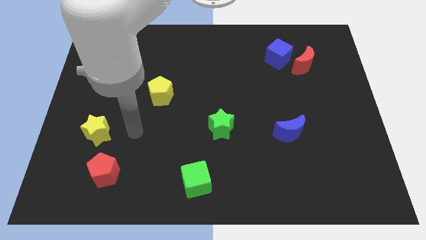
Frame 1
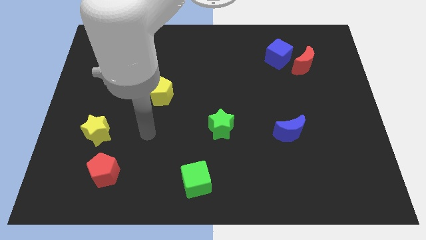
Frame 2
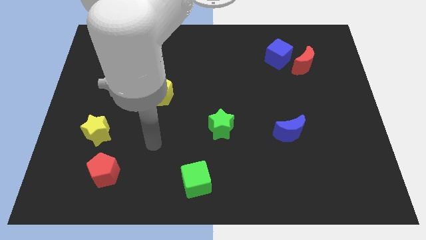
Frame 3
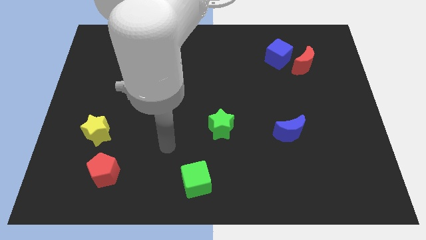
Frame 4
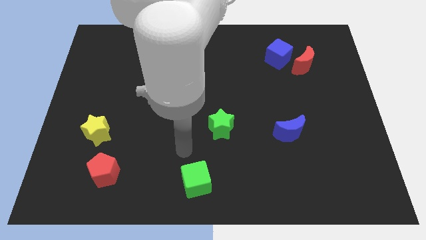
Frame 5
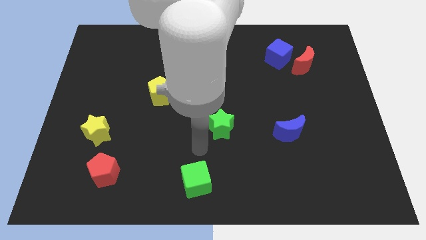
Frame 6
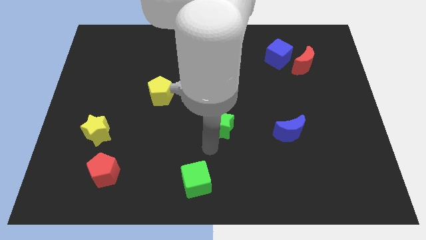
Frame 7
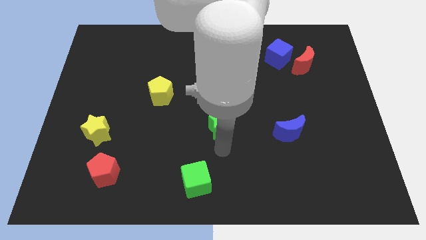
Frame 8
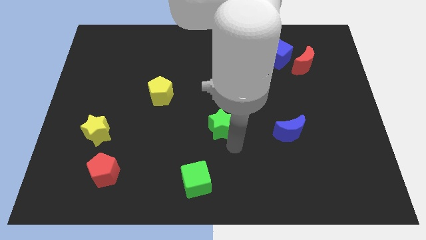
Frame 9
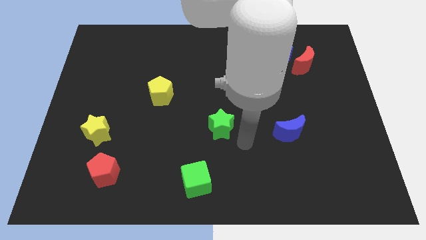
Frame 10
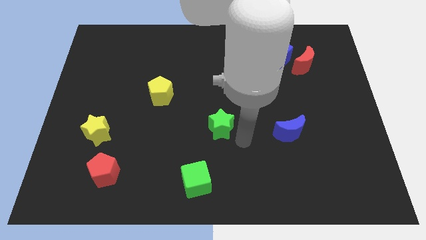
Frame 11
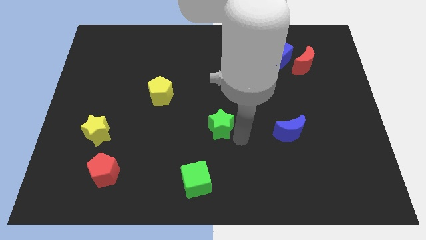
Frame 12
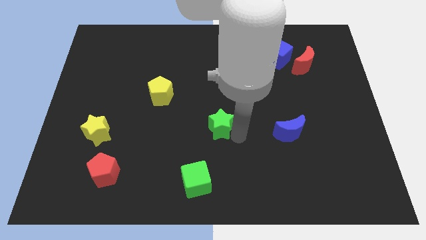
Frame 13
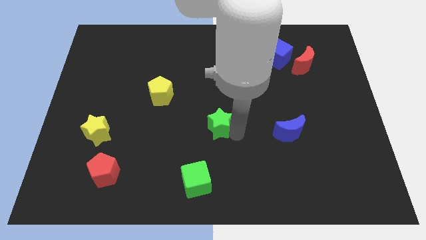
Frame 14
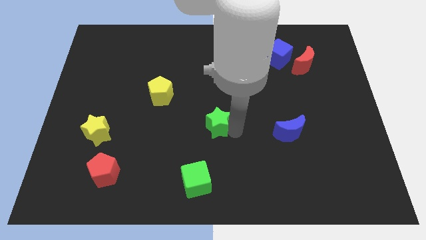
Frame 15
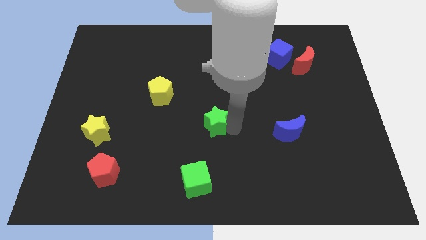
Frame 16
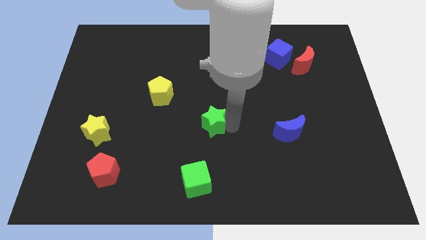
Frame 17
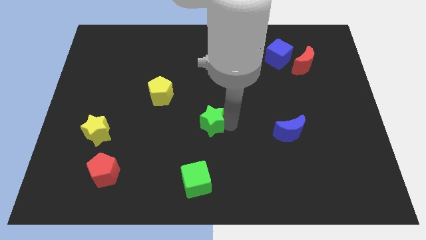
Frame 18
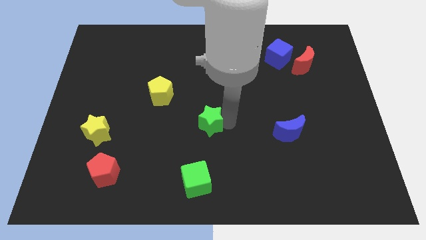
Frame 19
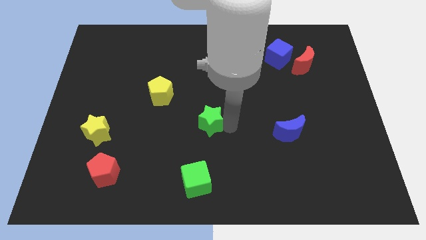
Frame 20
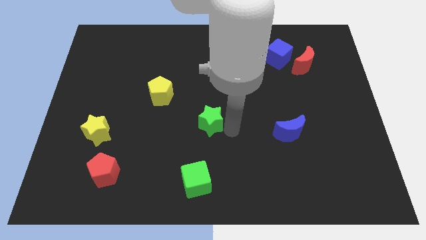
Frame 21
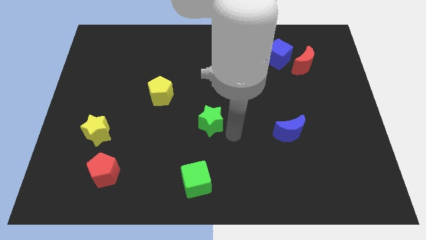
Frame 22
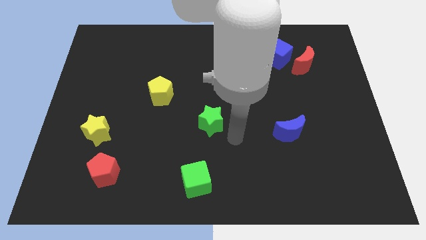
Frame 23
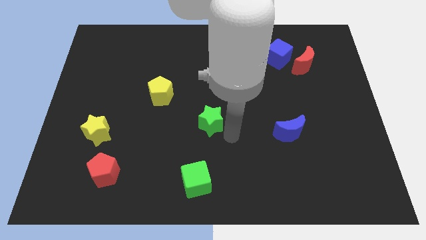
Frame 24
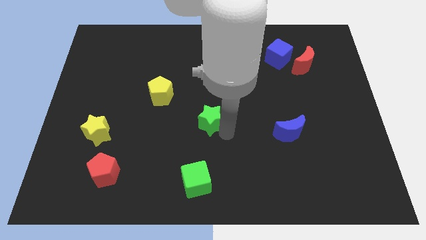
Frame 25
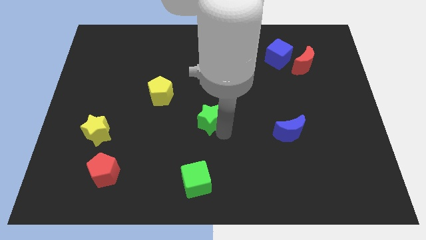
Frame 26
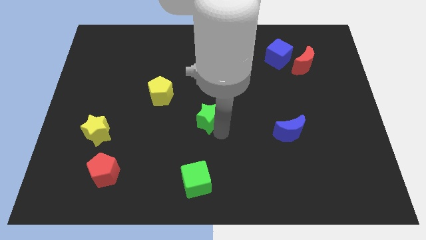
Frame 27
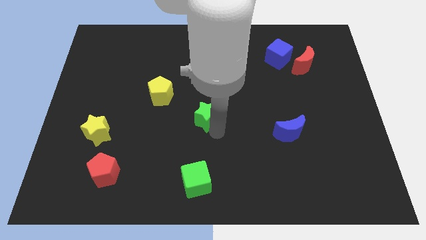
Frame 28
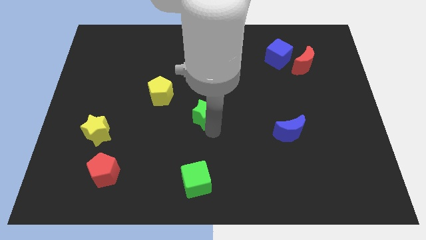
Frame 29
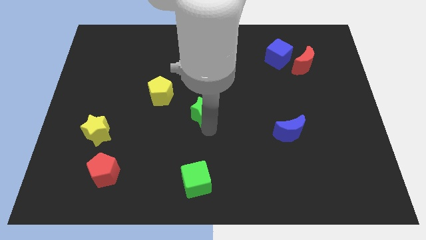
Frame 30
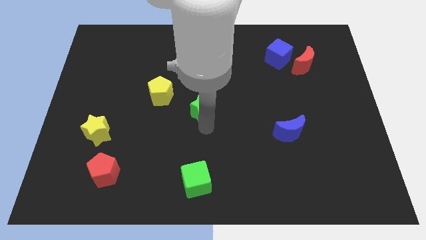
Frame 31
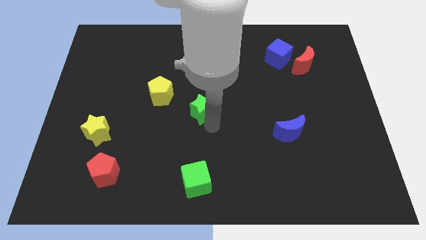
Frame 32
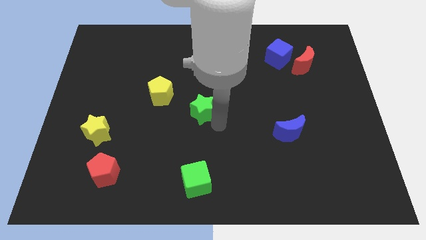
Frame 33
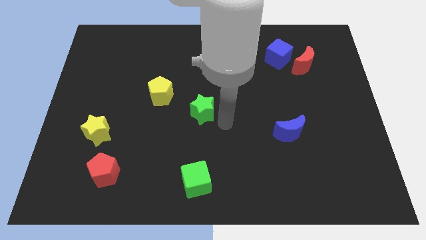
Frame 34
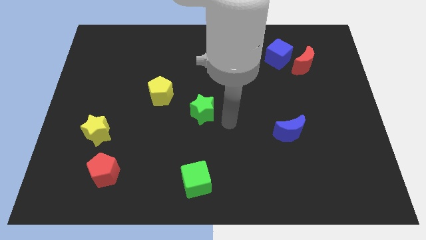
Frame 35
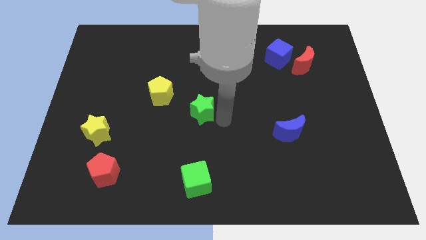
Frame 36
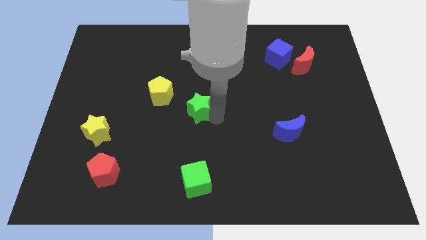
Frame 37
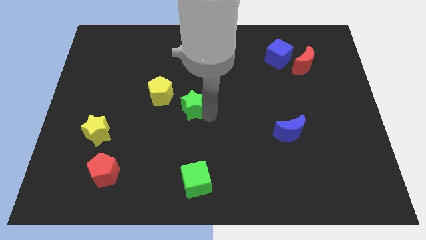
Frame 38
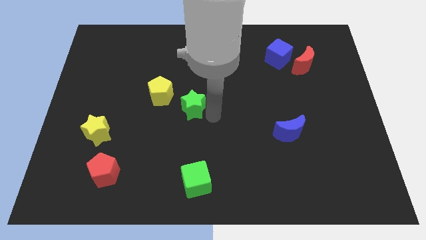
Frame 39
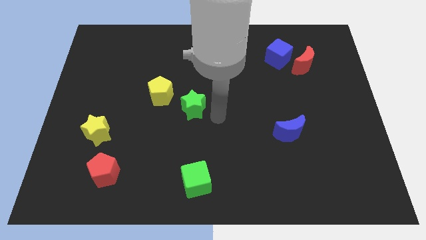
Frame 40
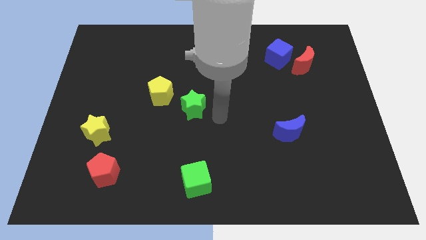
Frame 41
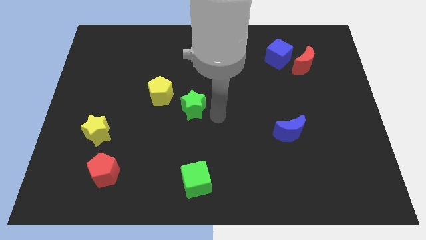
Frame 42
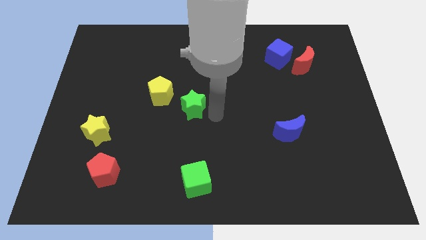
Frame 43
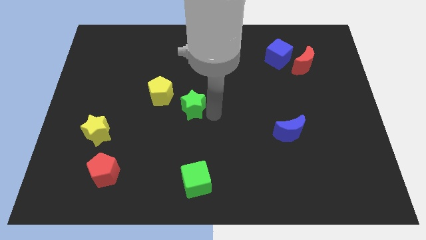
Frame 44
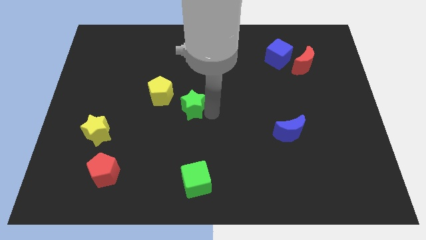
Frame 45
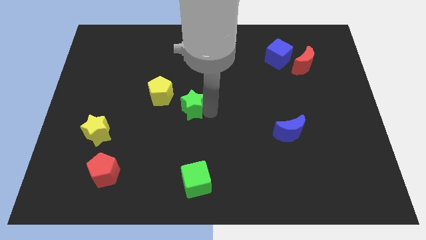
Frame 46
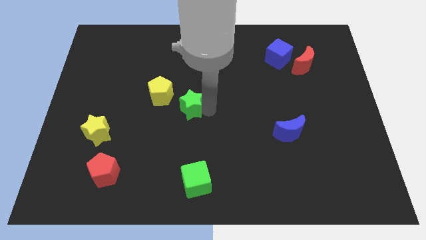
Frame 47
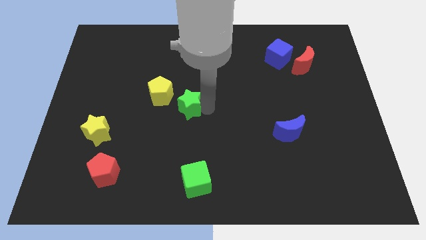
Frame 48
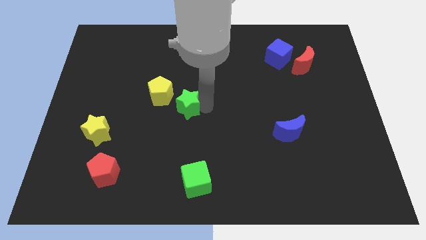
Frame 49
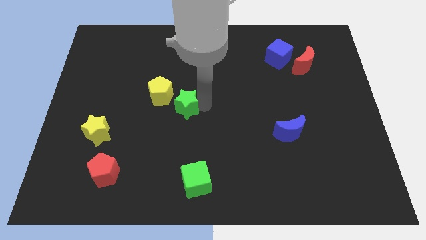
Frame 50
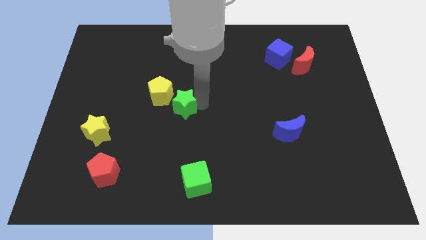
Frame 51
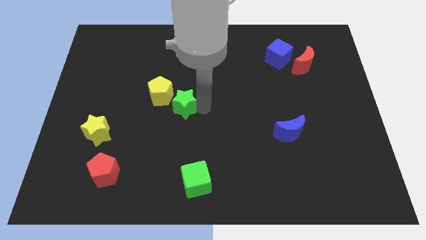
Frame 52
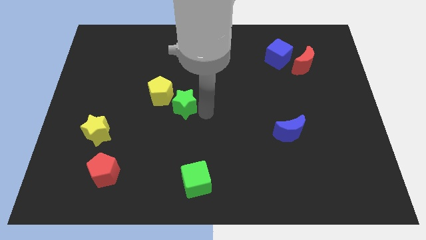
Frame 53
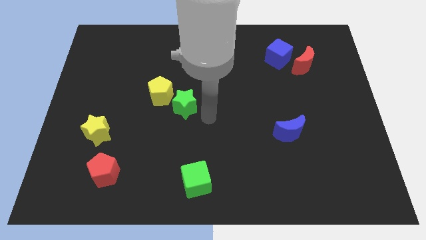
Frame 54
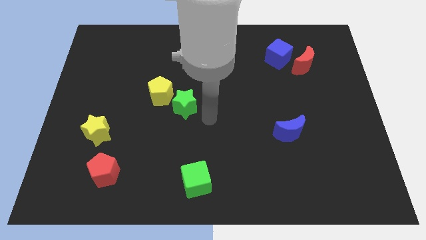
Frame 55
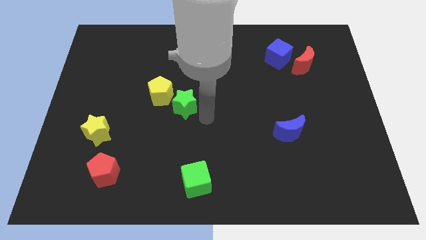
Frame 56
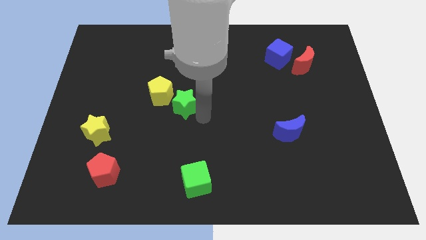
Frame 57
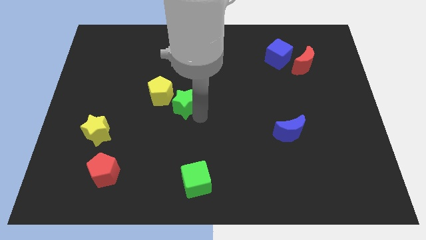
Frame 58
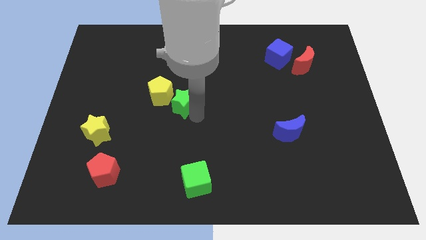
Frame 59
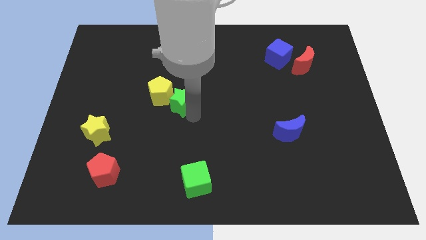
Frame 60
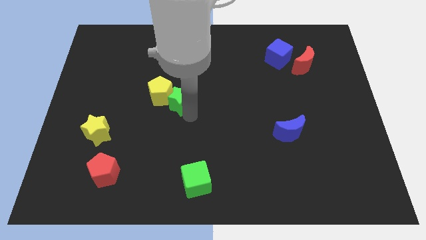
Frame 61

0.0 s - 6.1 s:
put the green star next to the yellow pentagon

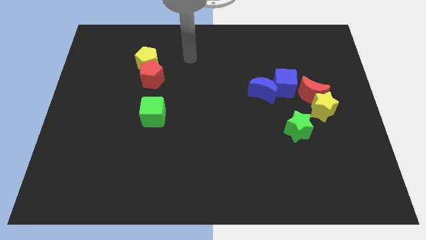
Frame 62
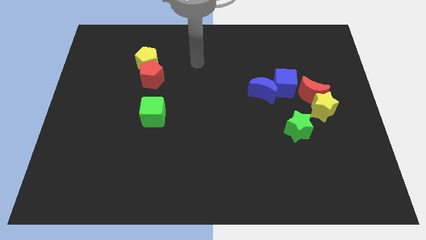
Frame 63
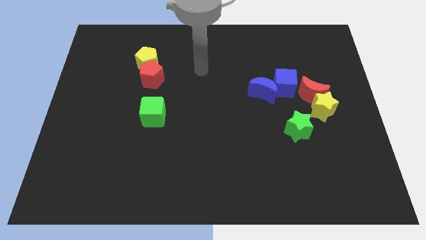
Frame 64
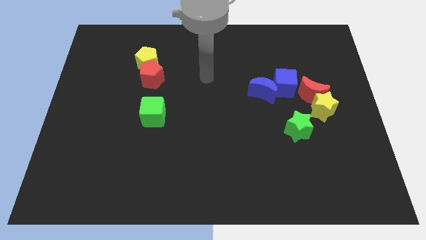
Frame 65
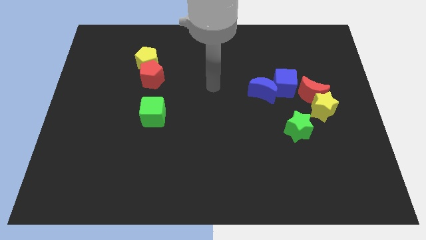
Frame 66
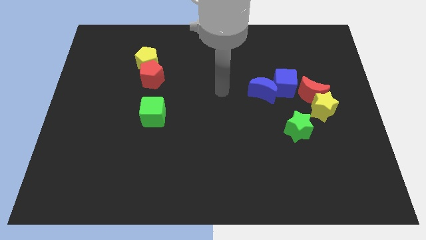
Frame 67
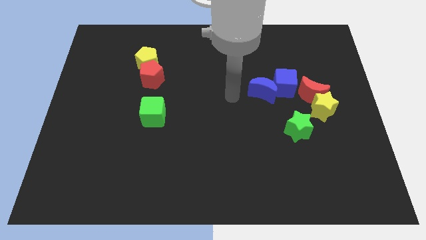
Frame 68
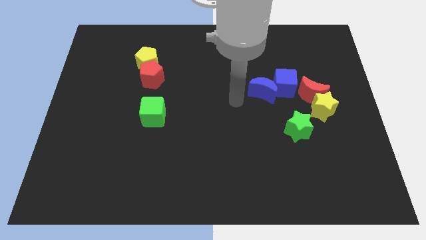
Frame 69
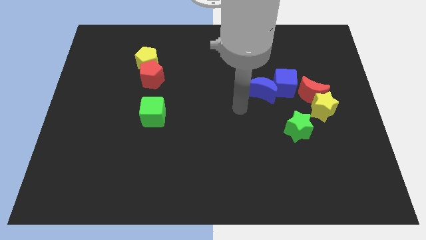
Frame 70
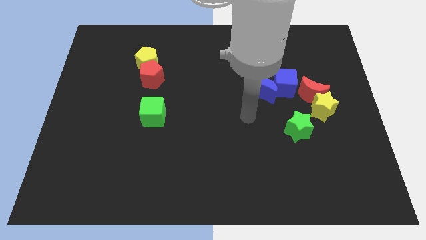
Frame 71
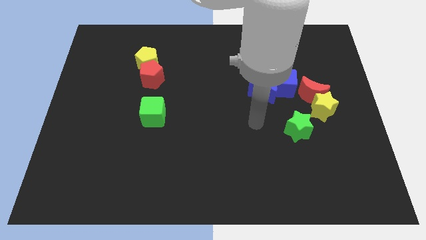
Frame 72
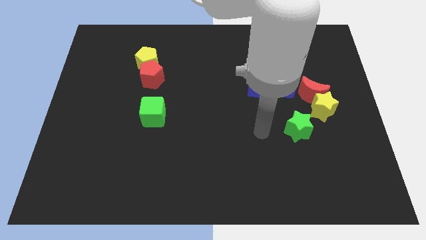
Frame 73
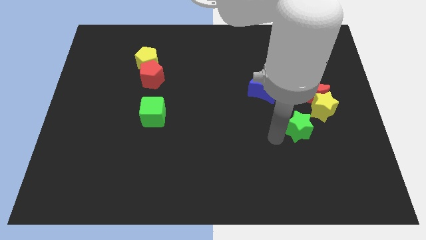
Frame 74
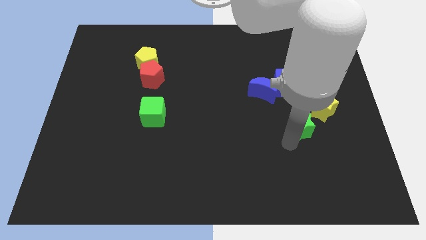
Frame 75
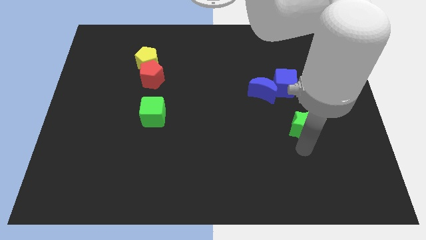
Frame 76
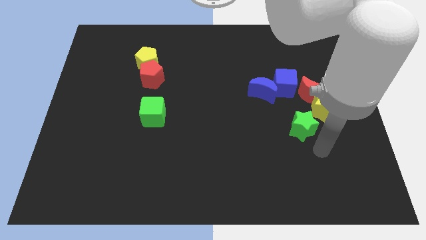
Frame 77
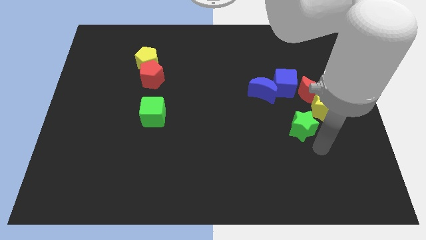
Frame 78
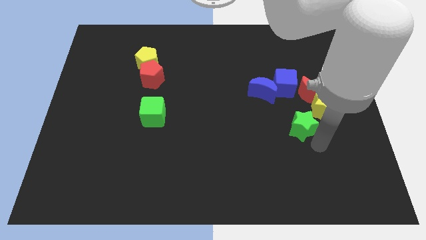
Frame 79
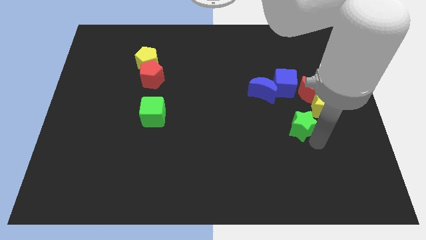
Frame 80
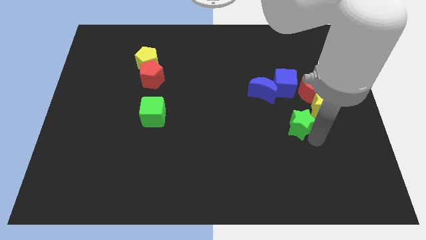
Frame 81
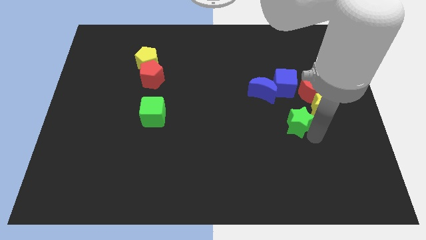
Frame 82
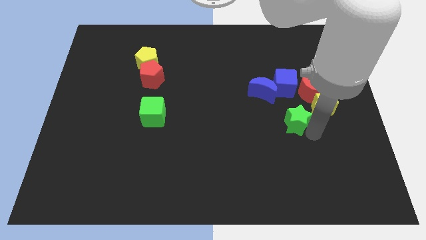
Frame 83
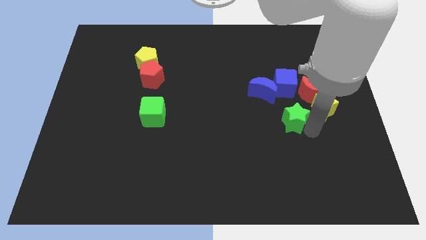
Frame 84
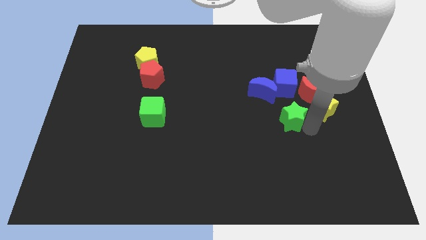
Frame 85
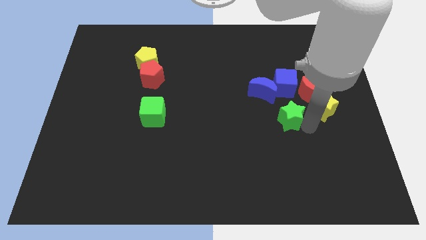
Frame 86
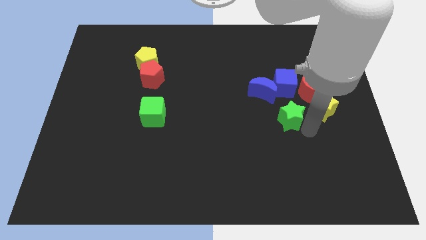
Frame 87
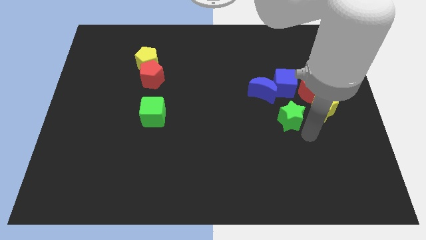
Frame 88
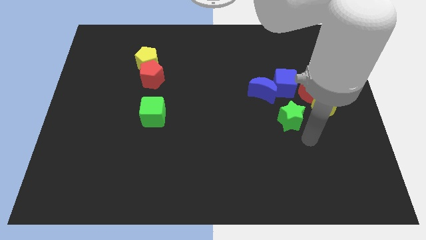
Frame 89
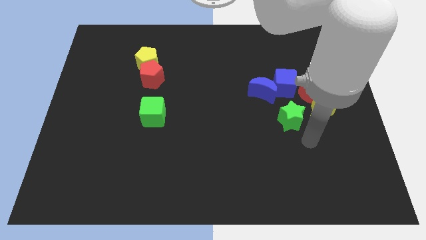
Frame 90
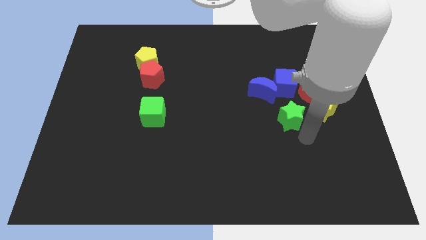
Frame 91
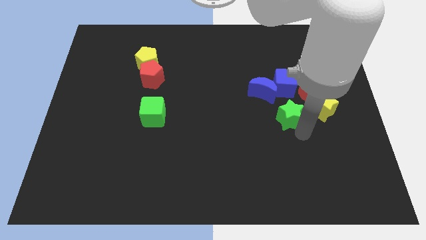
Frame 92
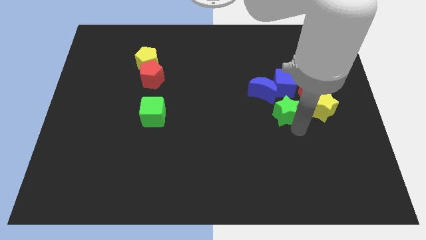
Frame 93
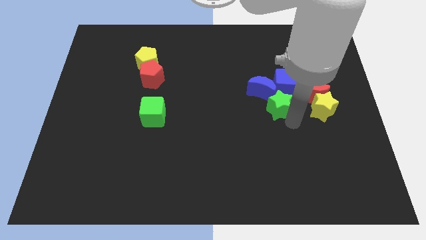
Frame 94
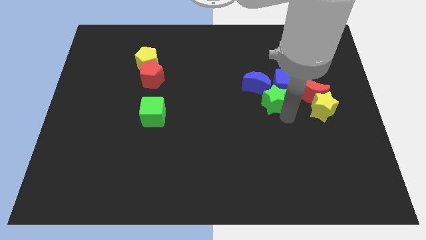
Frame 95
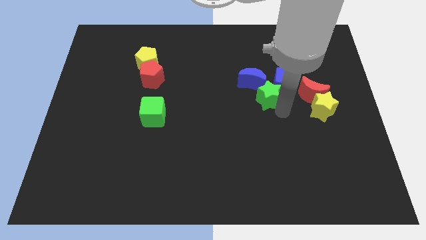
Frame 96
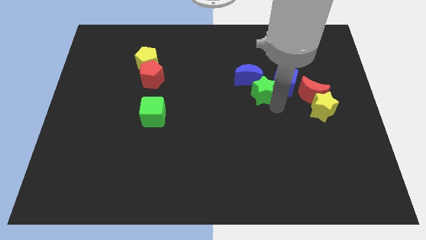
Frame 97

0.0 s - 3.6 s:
move the green star towards the blue moon
